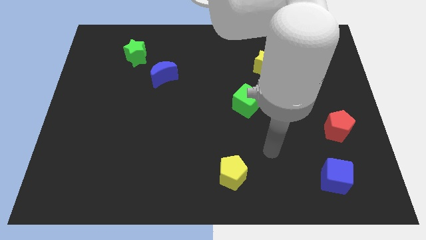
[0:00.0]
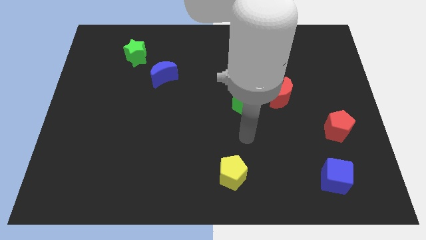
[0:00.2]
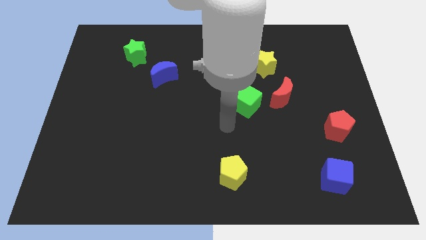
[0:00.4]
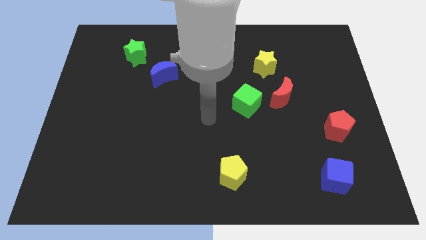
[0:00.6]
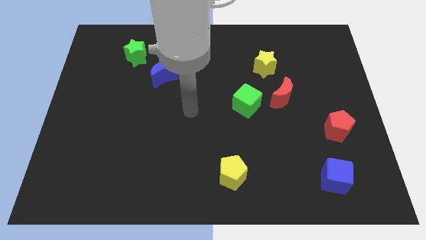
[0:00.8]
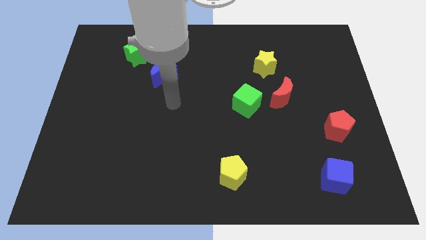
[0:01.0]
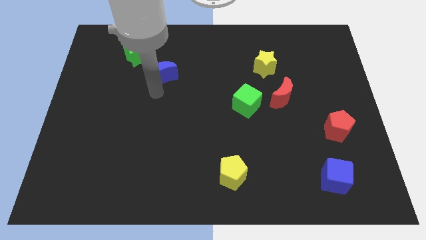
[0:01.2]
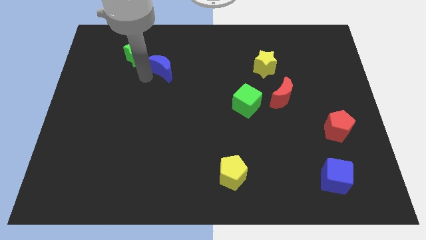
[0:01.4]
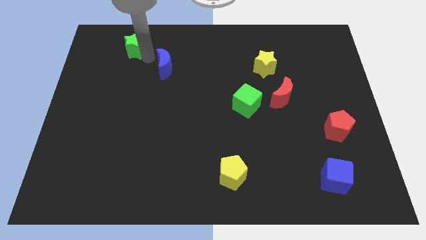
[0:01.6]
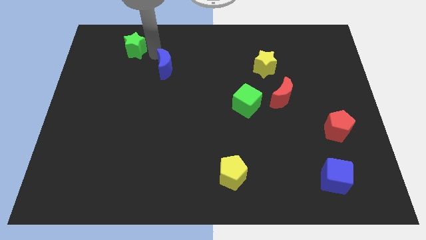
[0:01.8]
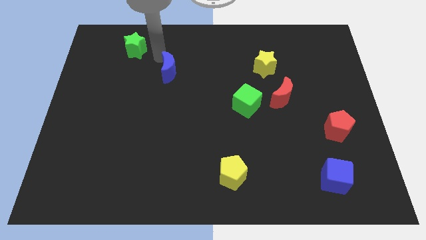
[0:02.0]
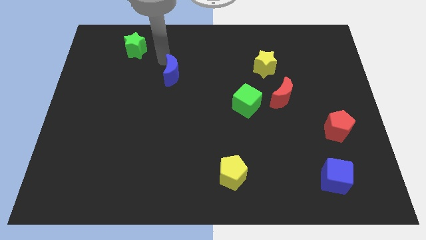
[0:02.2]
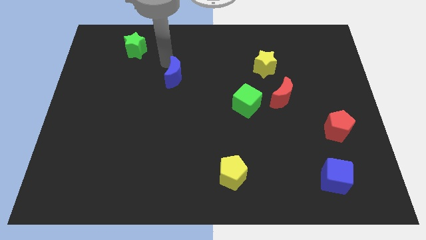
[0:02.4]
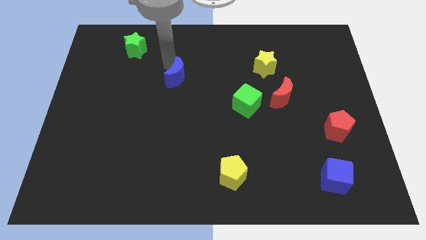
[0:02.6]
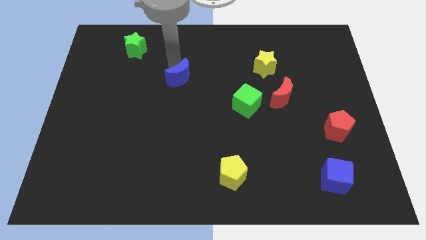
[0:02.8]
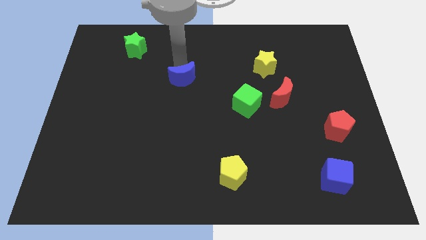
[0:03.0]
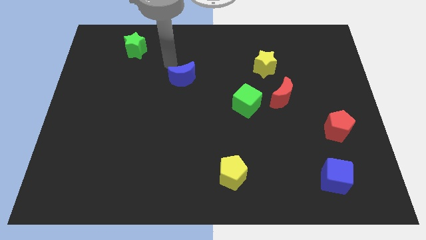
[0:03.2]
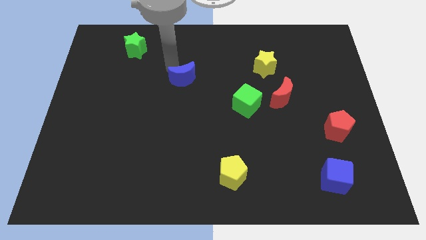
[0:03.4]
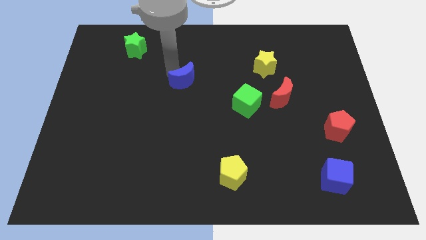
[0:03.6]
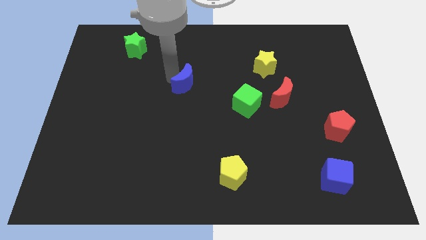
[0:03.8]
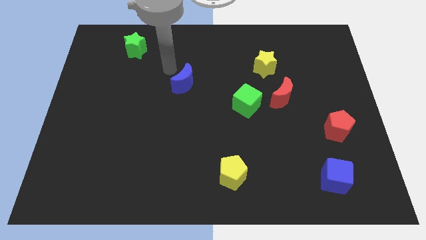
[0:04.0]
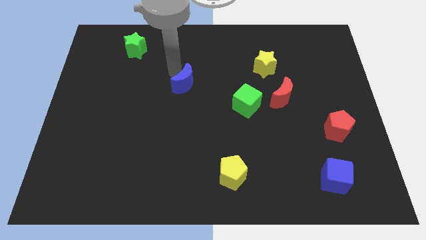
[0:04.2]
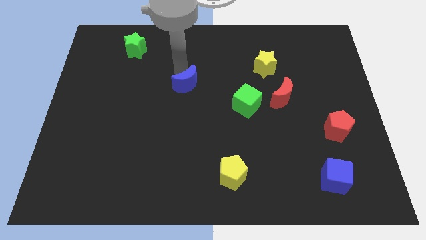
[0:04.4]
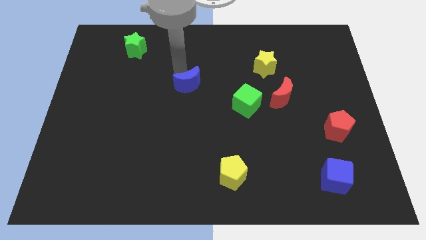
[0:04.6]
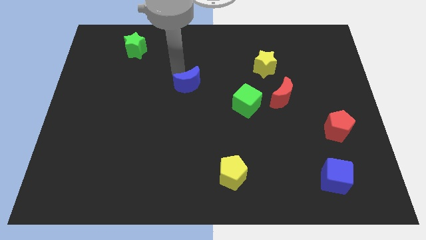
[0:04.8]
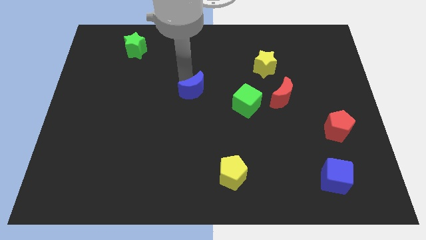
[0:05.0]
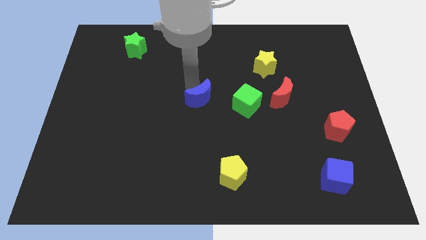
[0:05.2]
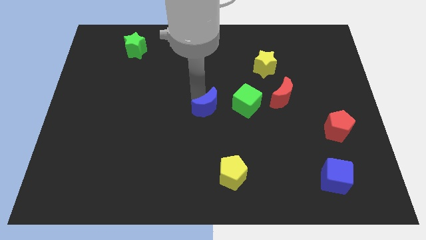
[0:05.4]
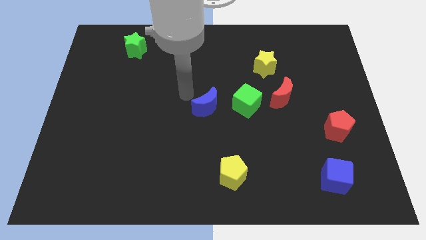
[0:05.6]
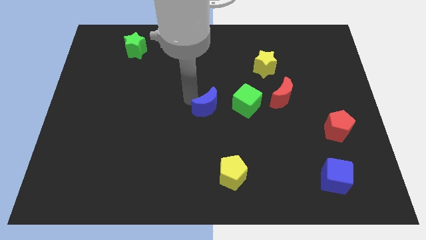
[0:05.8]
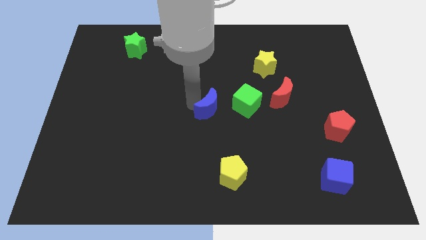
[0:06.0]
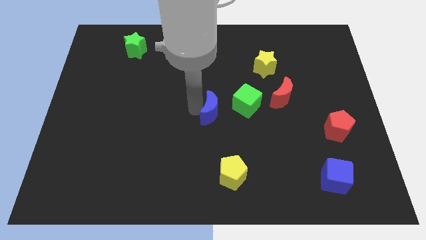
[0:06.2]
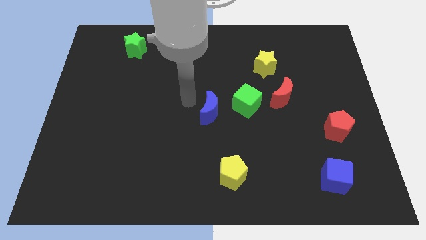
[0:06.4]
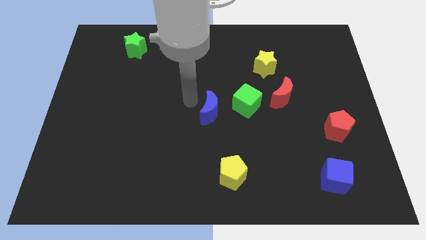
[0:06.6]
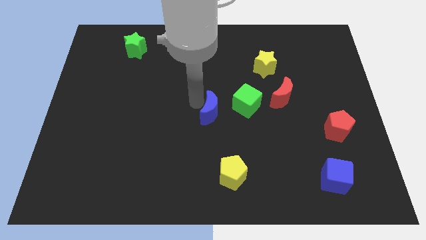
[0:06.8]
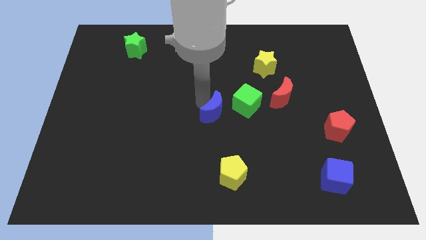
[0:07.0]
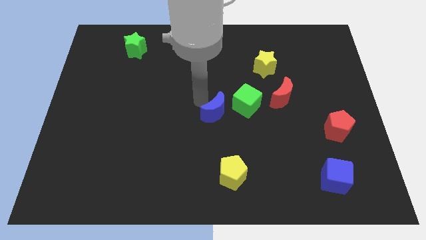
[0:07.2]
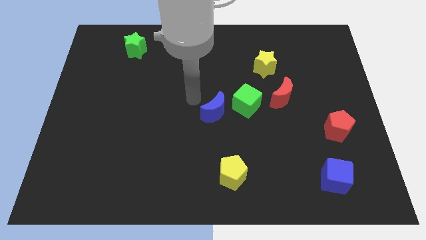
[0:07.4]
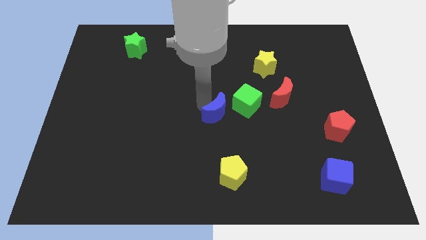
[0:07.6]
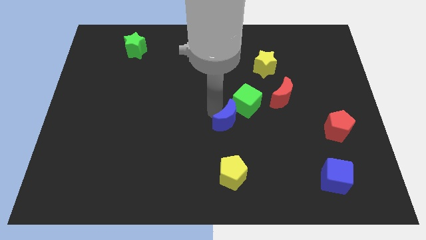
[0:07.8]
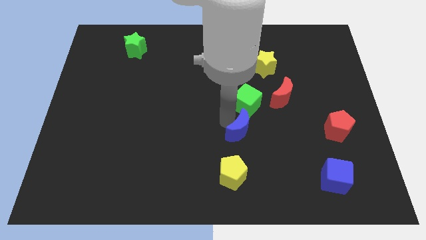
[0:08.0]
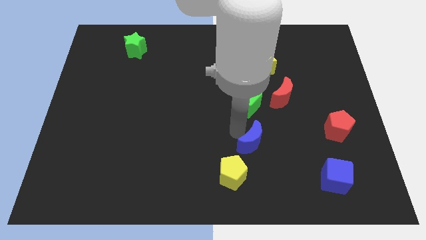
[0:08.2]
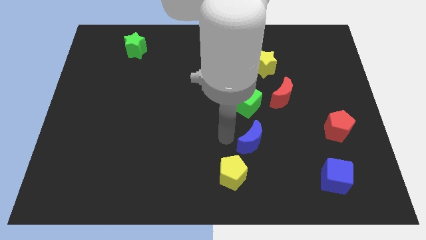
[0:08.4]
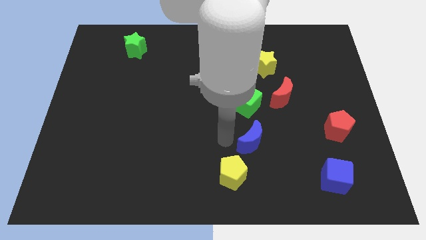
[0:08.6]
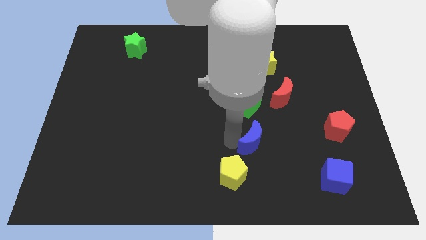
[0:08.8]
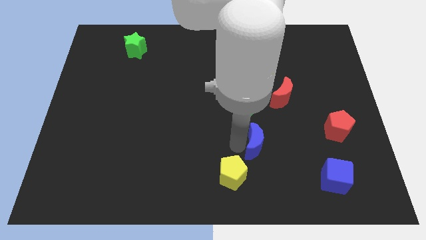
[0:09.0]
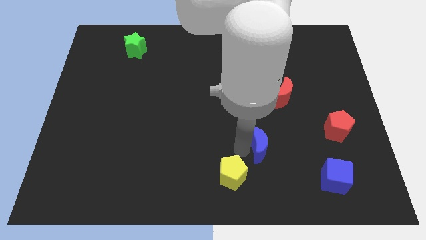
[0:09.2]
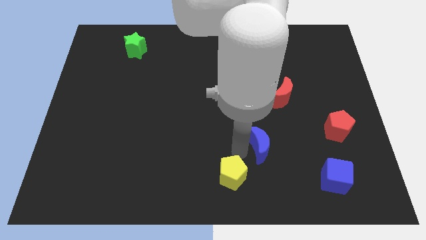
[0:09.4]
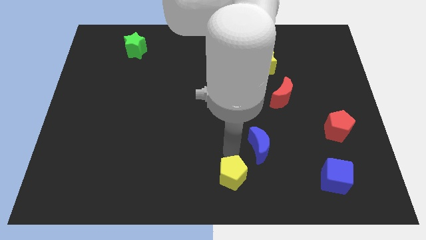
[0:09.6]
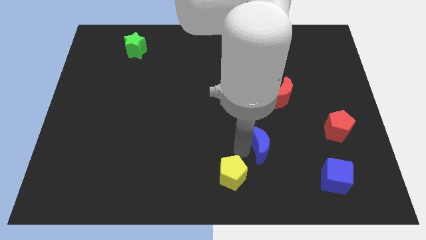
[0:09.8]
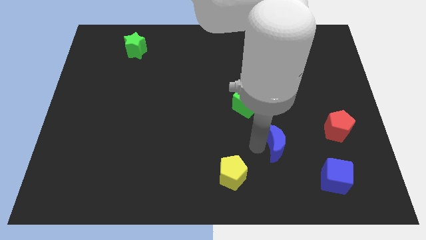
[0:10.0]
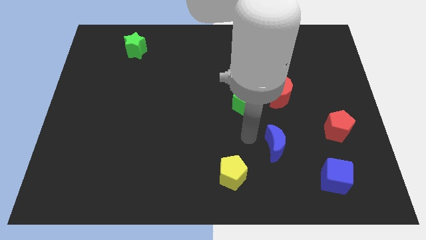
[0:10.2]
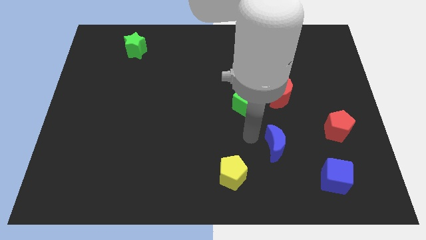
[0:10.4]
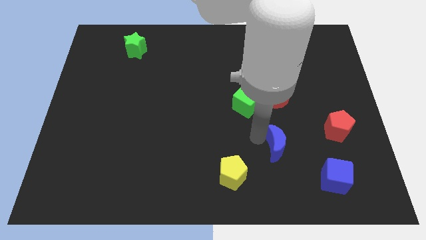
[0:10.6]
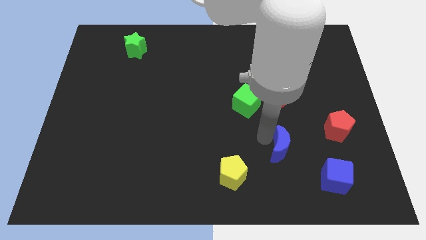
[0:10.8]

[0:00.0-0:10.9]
push the blue moon to the top left side of the blue cube

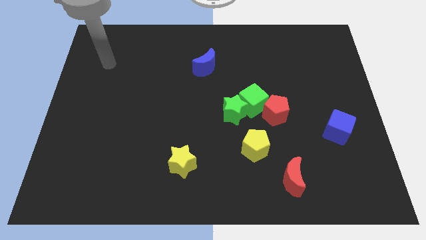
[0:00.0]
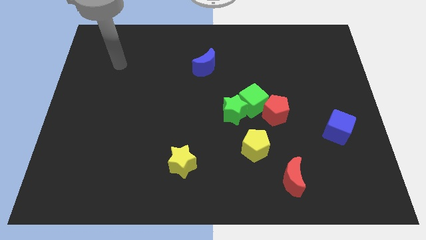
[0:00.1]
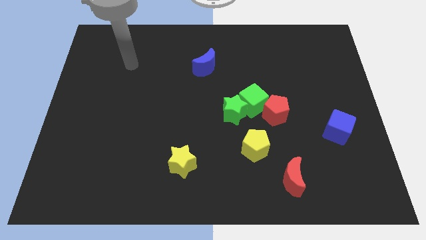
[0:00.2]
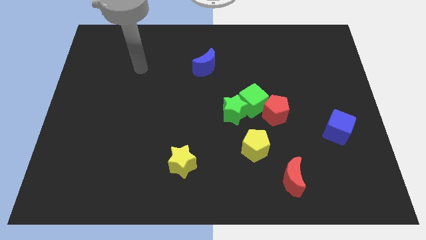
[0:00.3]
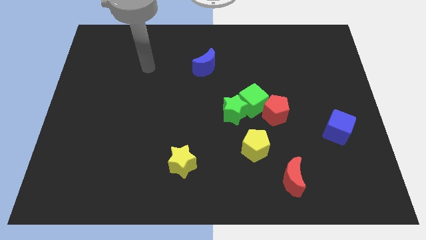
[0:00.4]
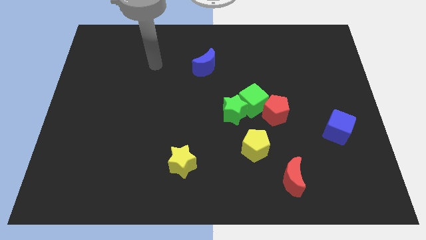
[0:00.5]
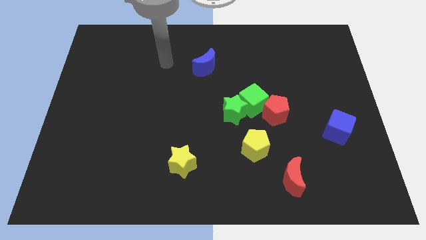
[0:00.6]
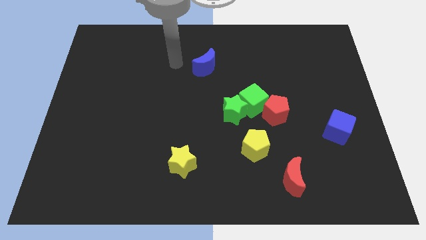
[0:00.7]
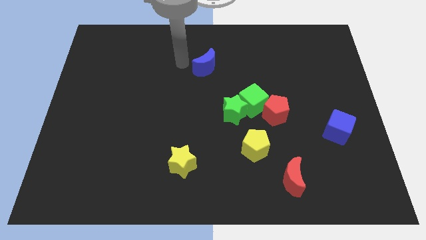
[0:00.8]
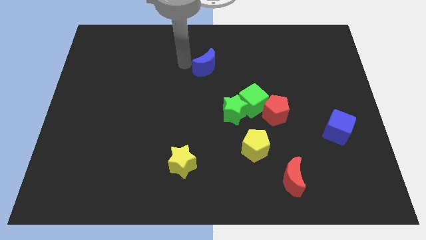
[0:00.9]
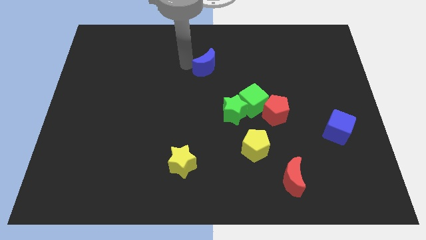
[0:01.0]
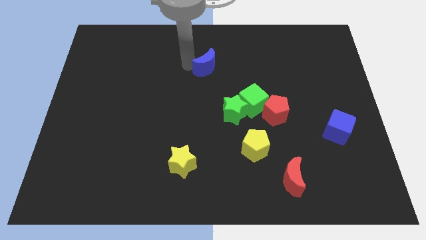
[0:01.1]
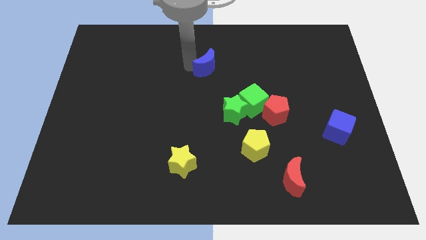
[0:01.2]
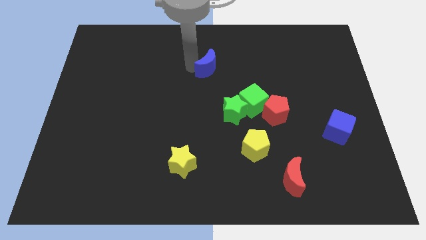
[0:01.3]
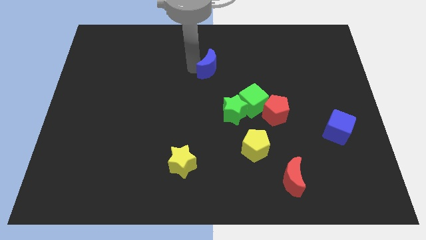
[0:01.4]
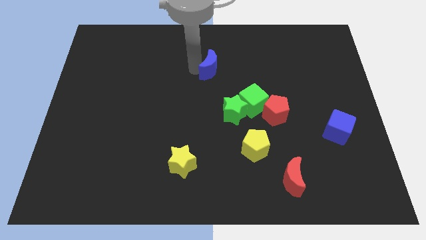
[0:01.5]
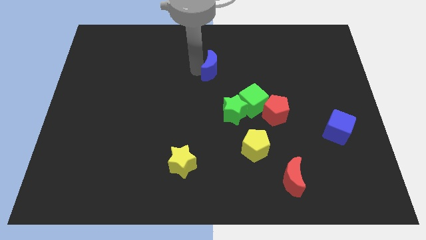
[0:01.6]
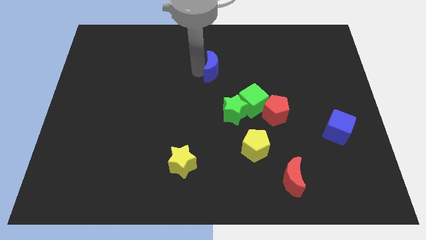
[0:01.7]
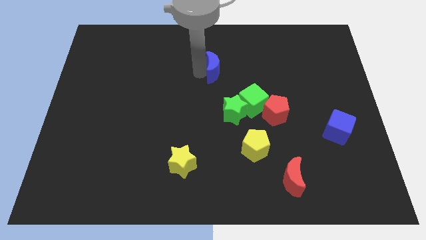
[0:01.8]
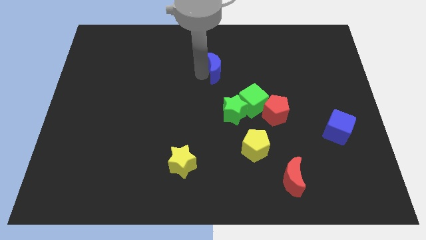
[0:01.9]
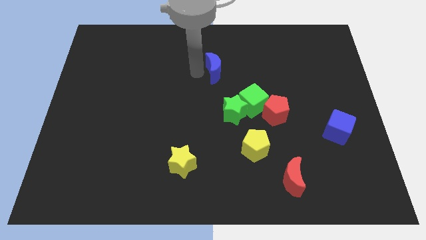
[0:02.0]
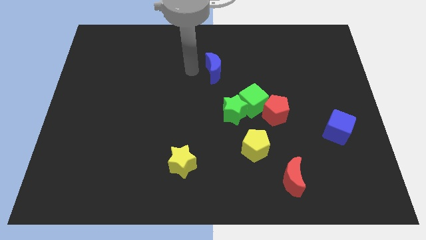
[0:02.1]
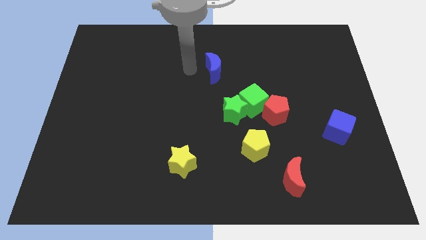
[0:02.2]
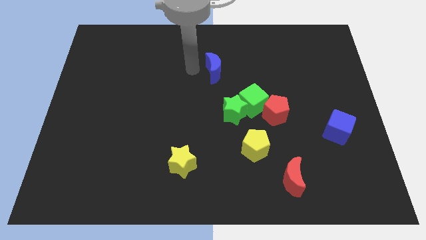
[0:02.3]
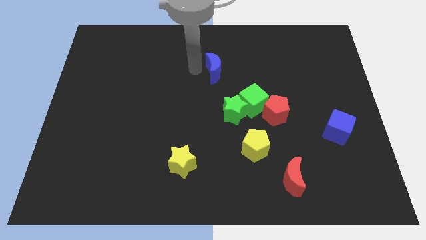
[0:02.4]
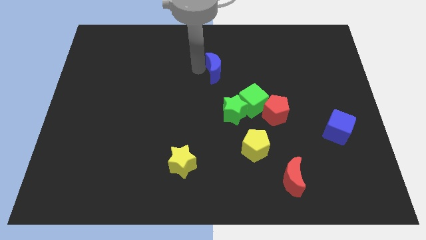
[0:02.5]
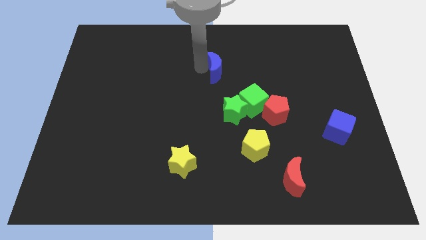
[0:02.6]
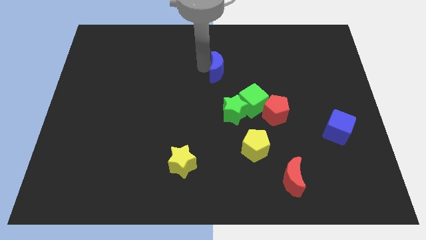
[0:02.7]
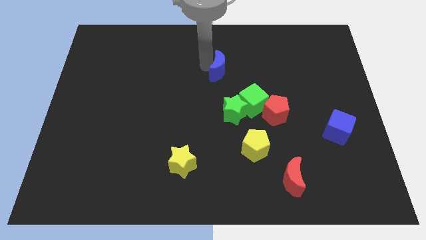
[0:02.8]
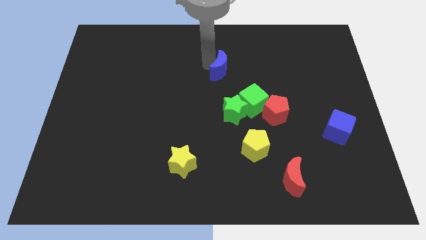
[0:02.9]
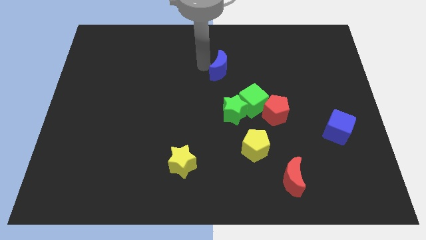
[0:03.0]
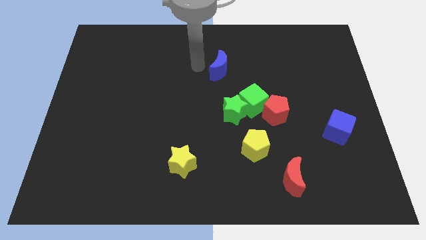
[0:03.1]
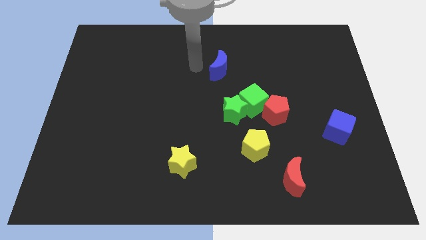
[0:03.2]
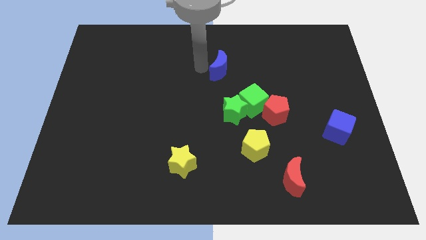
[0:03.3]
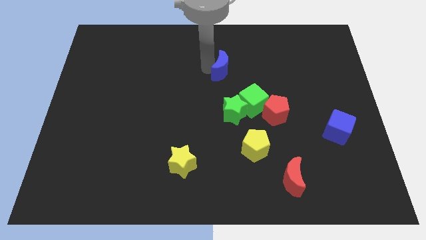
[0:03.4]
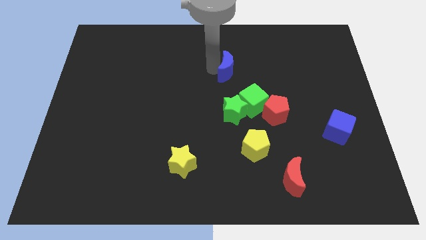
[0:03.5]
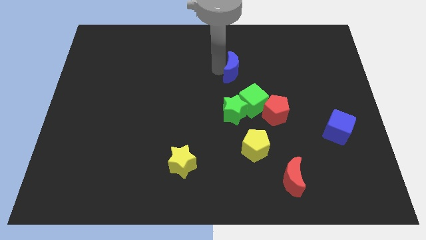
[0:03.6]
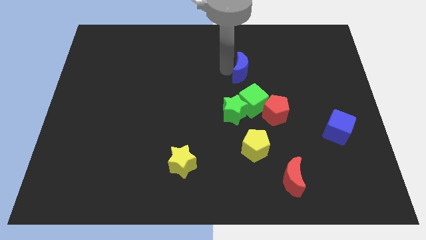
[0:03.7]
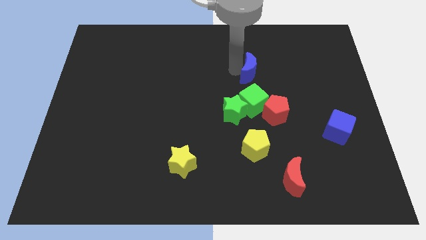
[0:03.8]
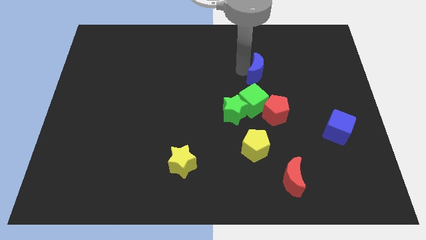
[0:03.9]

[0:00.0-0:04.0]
slide the blue moon to the top side of the red pentagon
